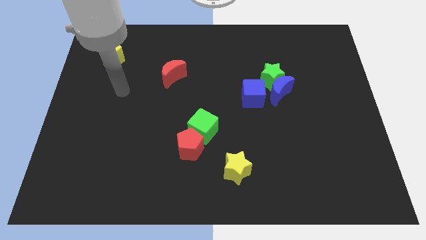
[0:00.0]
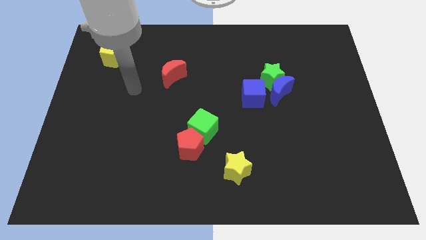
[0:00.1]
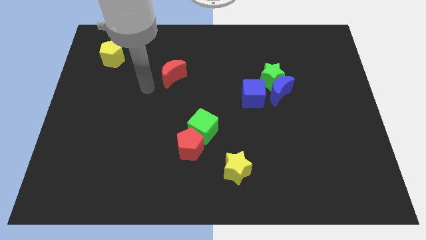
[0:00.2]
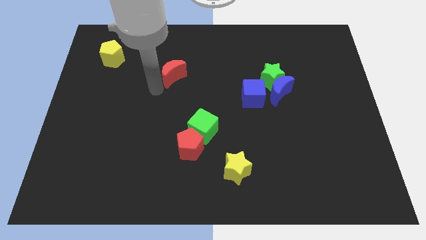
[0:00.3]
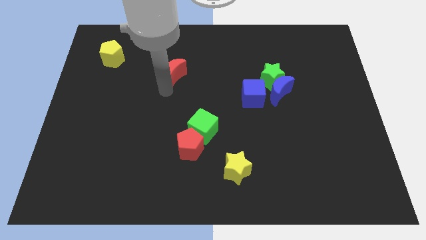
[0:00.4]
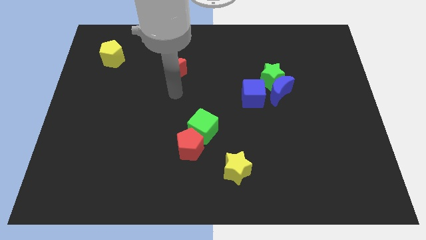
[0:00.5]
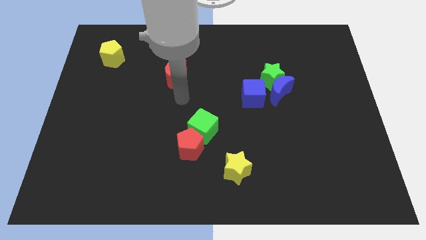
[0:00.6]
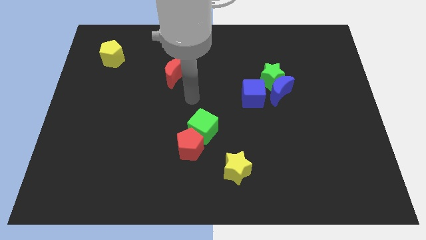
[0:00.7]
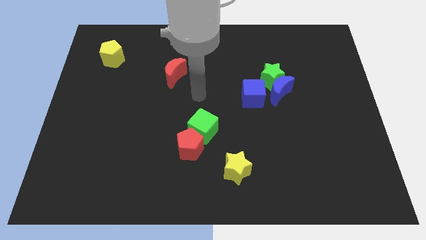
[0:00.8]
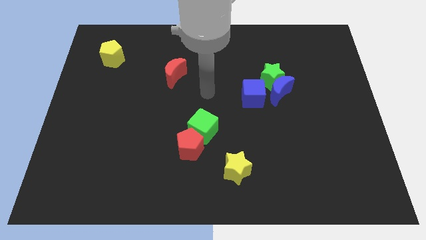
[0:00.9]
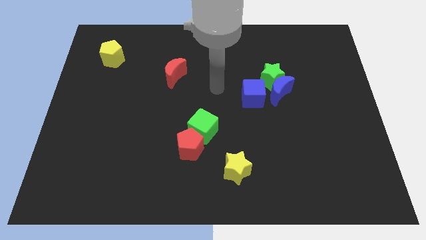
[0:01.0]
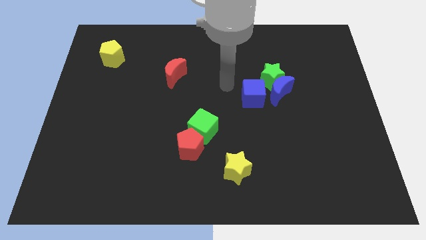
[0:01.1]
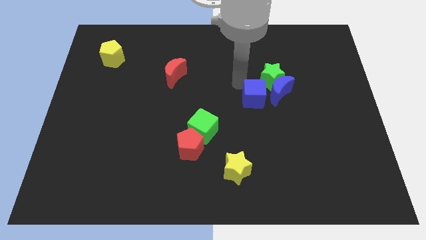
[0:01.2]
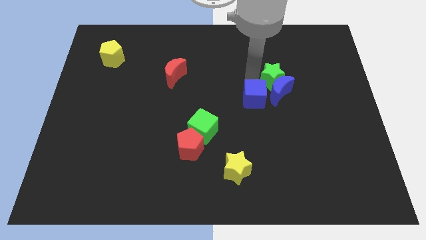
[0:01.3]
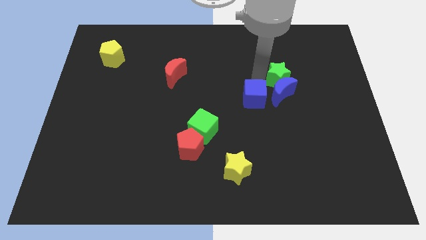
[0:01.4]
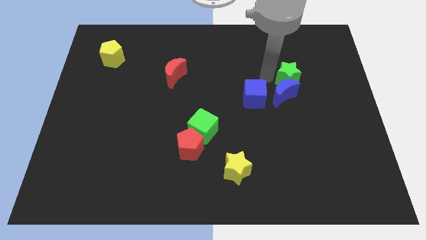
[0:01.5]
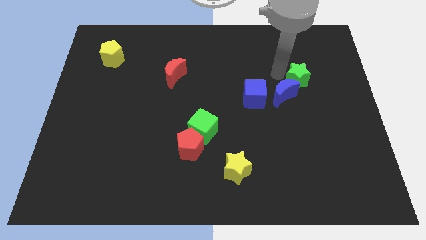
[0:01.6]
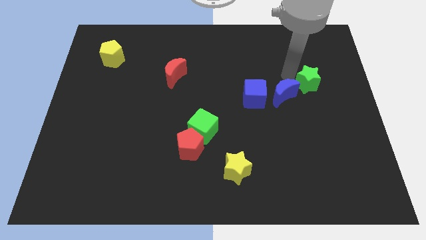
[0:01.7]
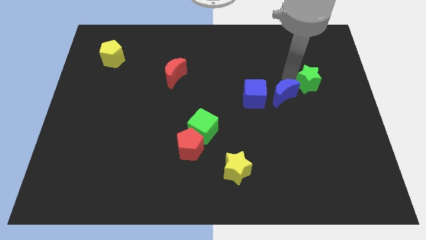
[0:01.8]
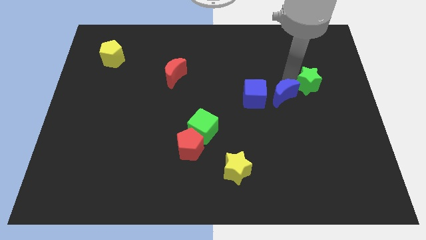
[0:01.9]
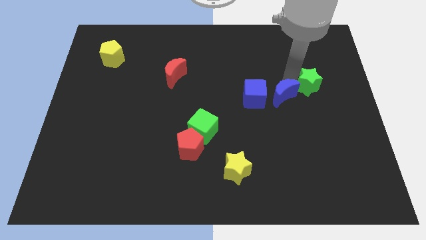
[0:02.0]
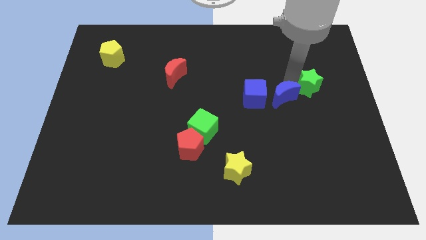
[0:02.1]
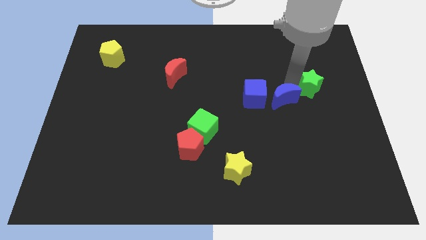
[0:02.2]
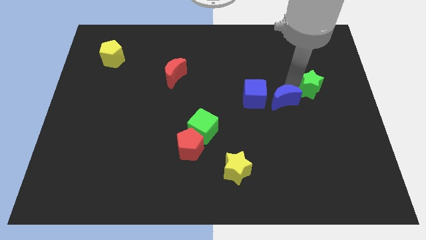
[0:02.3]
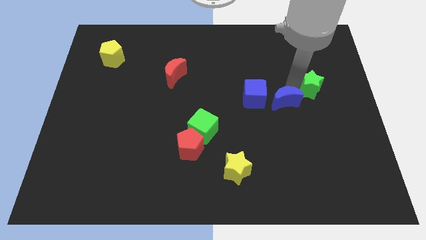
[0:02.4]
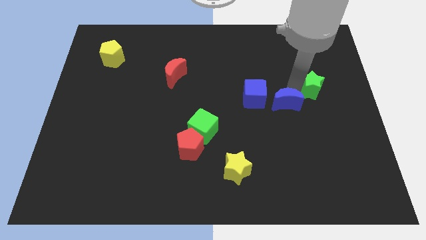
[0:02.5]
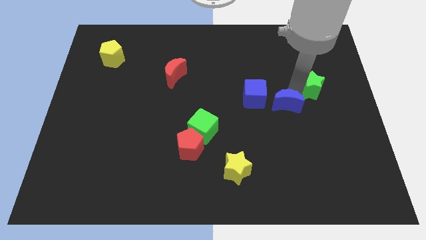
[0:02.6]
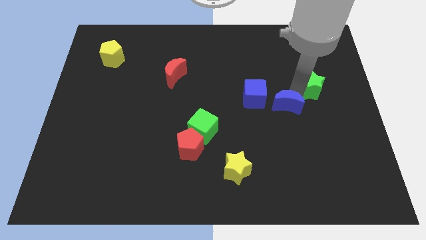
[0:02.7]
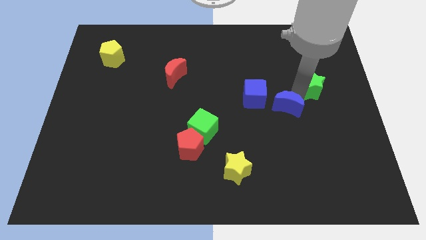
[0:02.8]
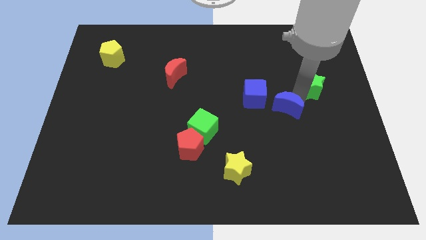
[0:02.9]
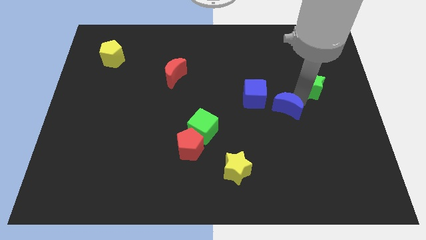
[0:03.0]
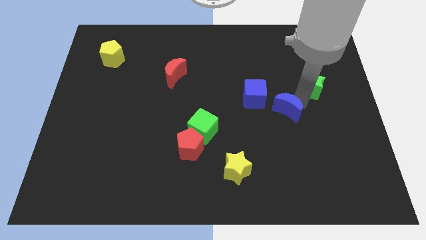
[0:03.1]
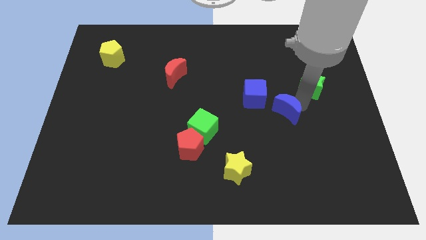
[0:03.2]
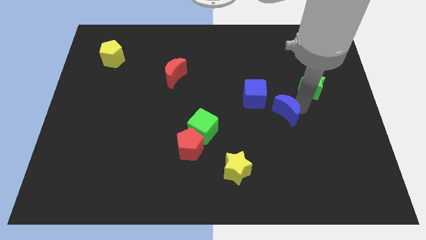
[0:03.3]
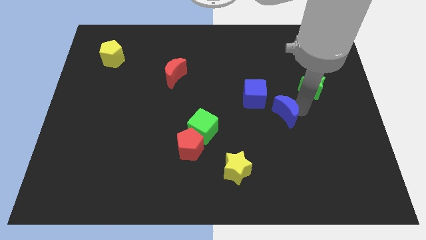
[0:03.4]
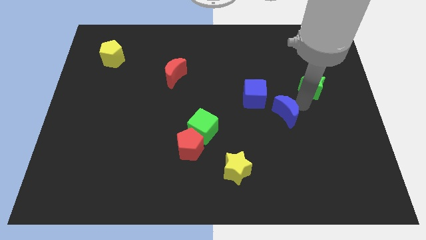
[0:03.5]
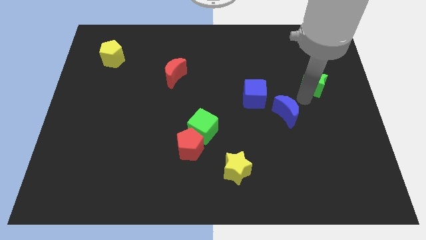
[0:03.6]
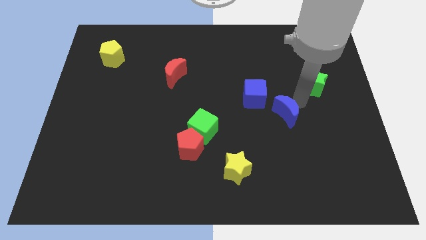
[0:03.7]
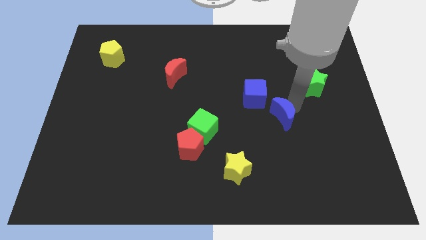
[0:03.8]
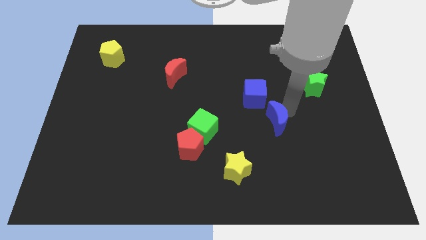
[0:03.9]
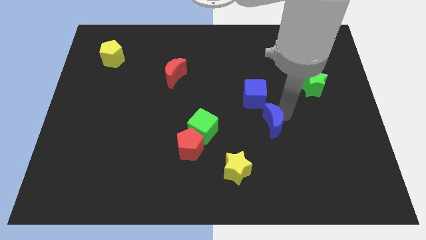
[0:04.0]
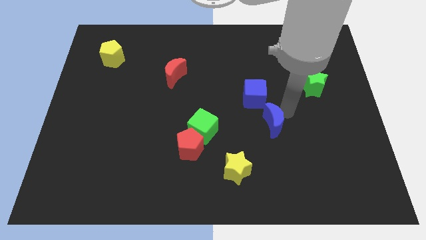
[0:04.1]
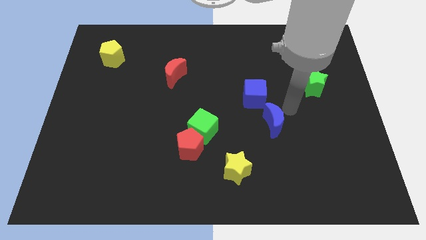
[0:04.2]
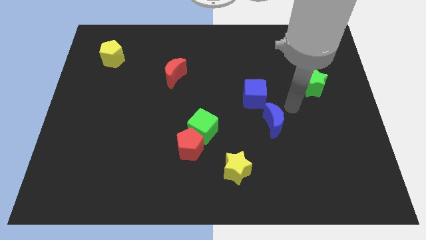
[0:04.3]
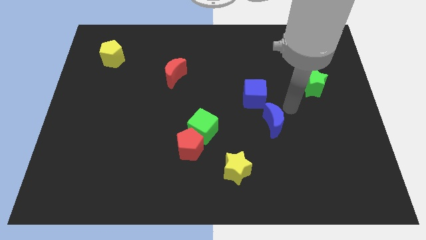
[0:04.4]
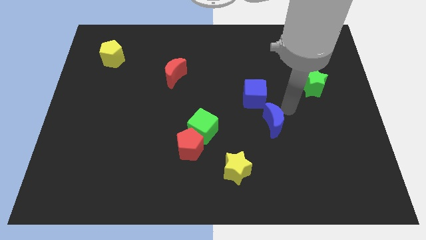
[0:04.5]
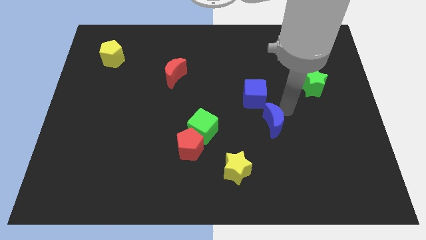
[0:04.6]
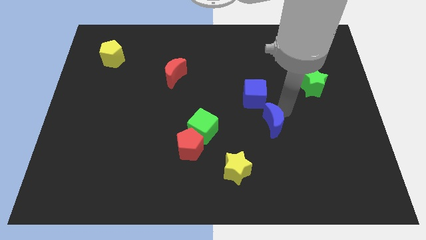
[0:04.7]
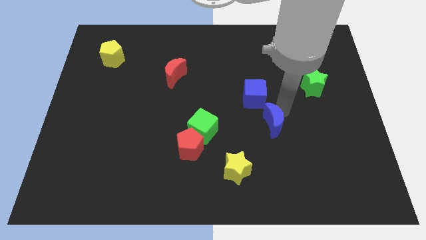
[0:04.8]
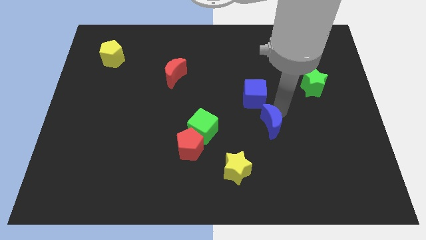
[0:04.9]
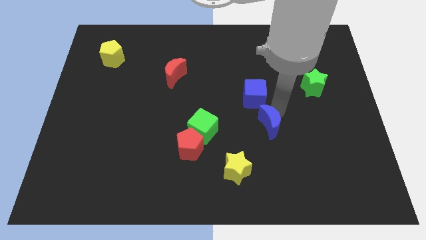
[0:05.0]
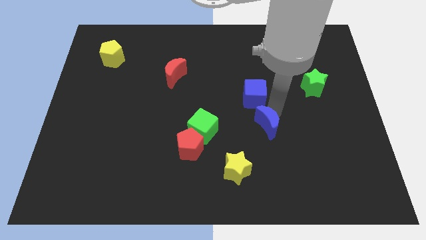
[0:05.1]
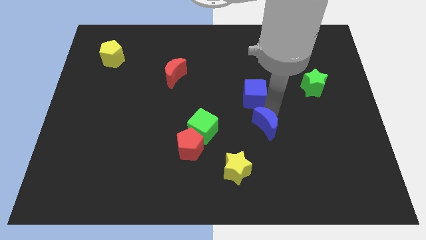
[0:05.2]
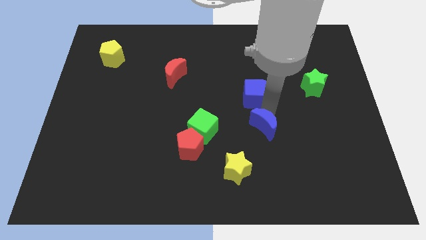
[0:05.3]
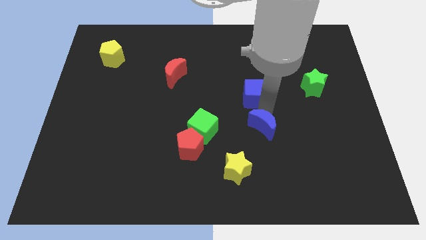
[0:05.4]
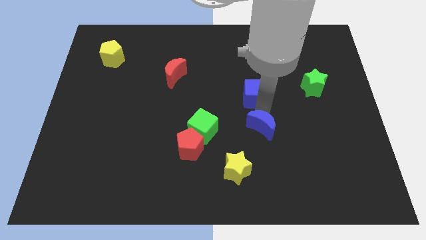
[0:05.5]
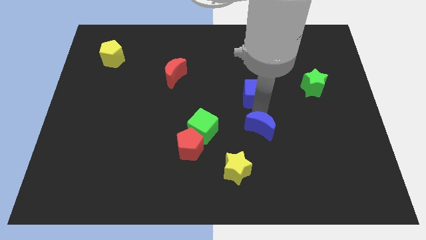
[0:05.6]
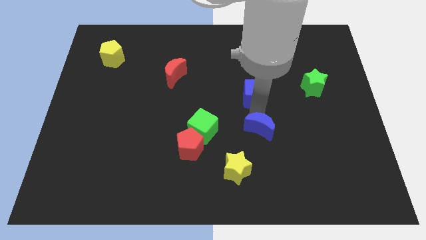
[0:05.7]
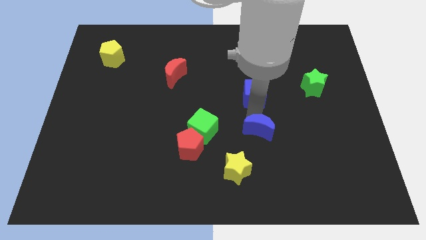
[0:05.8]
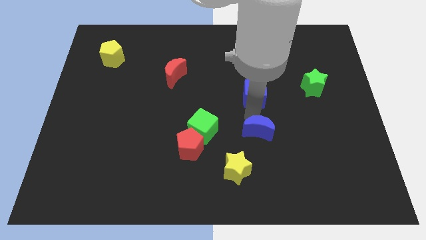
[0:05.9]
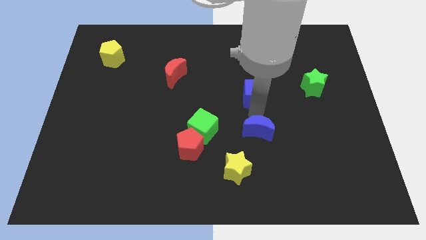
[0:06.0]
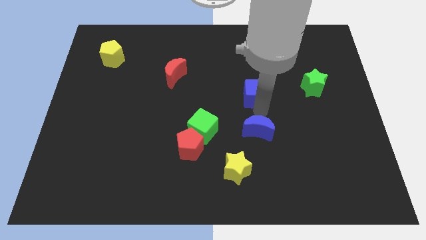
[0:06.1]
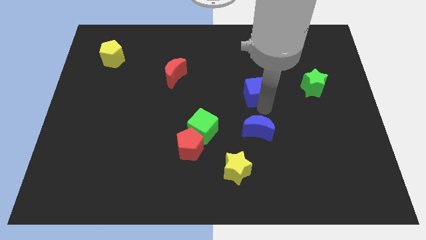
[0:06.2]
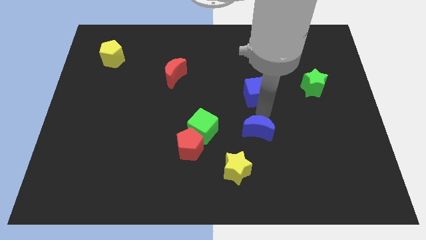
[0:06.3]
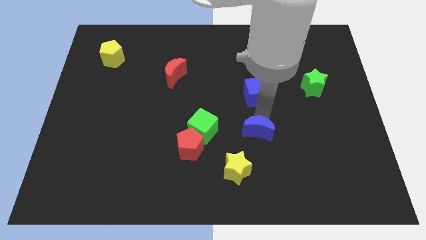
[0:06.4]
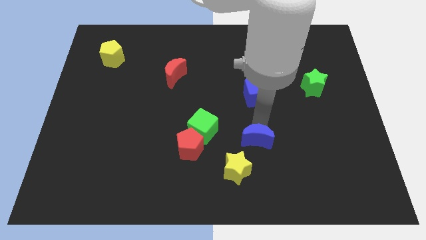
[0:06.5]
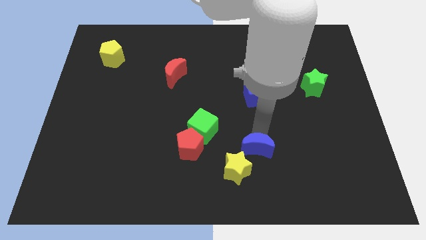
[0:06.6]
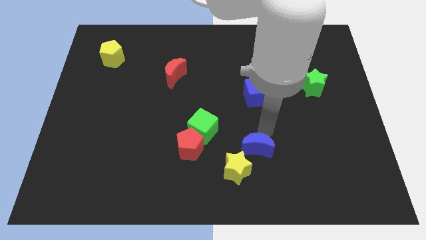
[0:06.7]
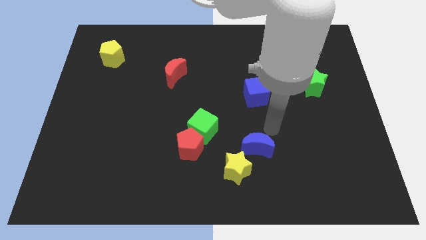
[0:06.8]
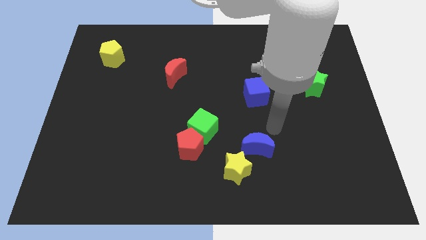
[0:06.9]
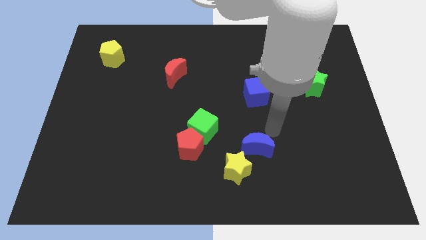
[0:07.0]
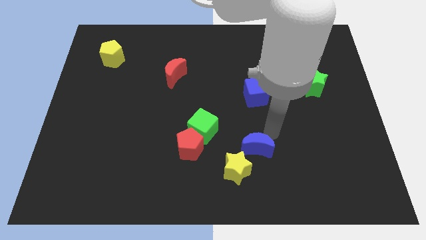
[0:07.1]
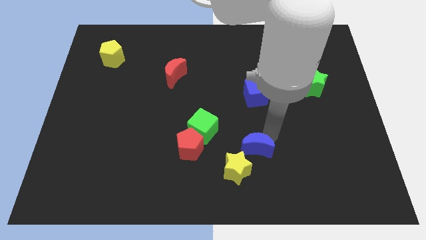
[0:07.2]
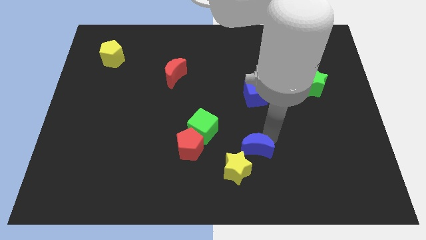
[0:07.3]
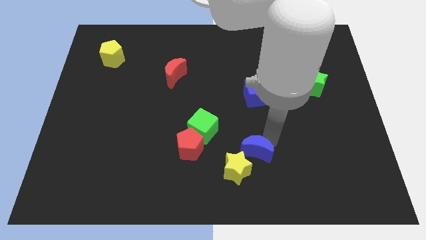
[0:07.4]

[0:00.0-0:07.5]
move the blue moon to the yellow star
